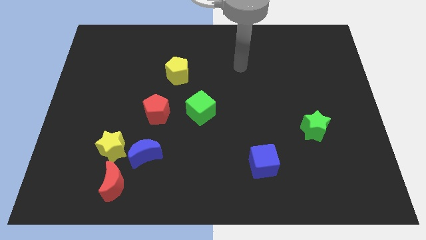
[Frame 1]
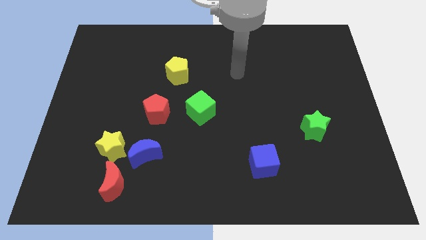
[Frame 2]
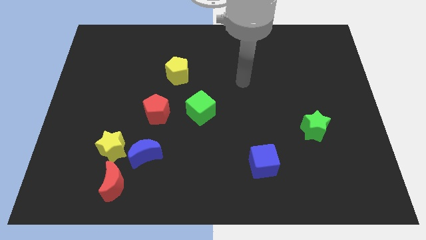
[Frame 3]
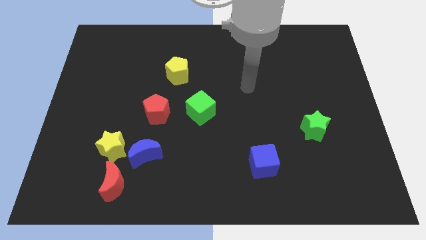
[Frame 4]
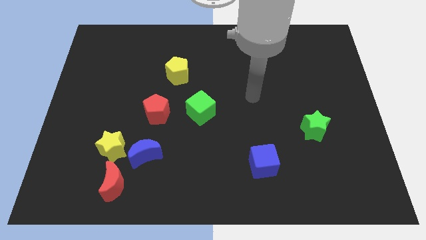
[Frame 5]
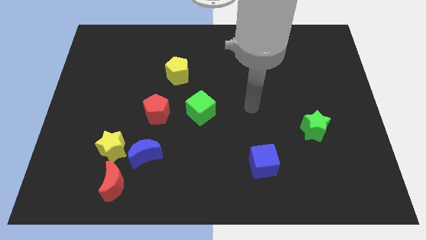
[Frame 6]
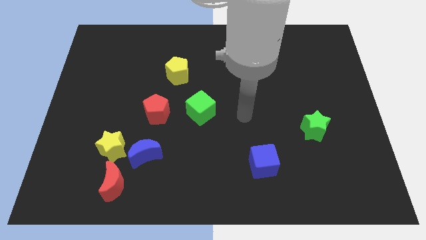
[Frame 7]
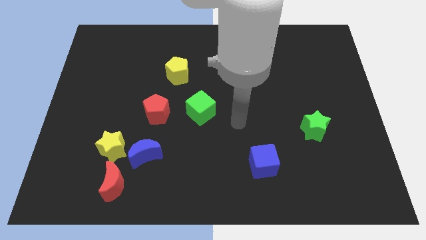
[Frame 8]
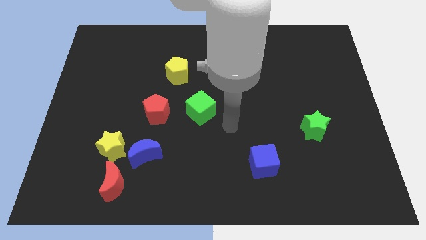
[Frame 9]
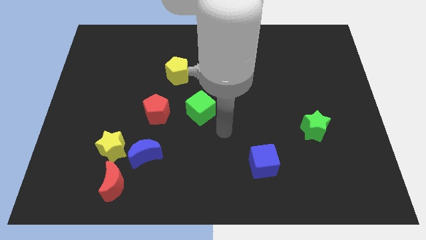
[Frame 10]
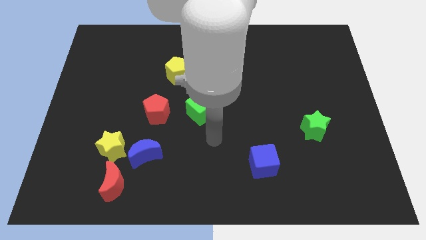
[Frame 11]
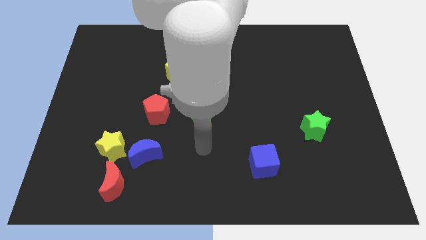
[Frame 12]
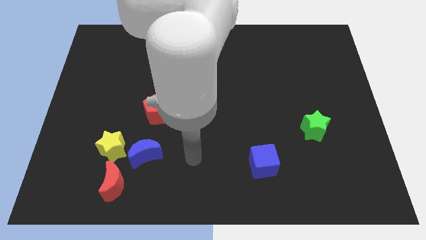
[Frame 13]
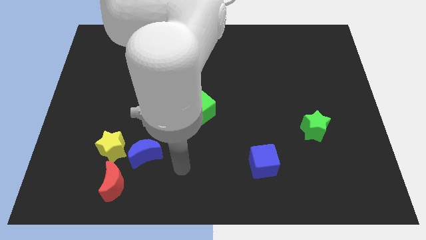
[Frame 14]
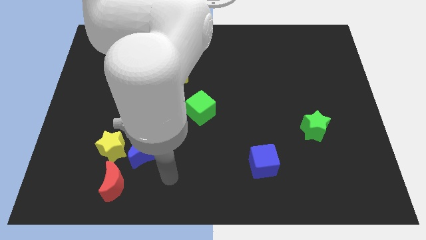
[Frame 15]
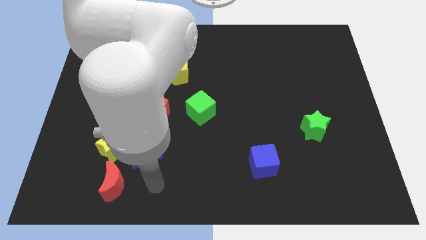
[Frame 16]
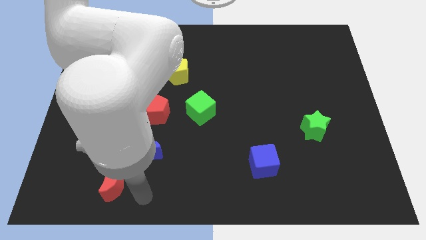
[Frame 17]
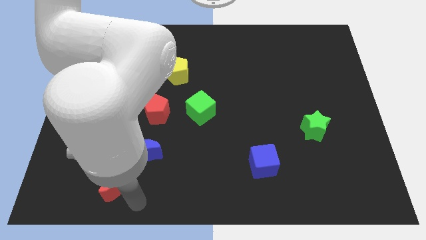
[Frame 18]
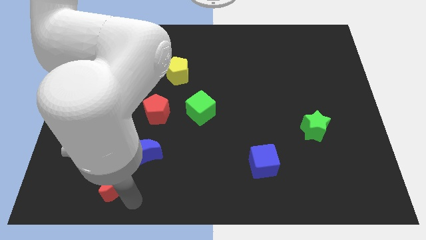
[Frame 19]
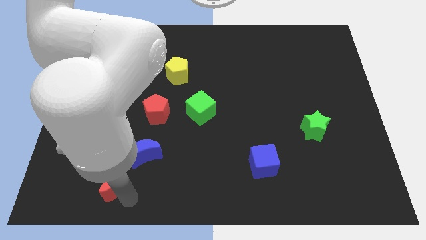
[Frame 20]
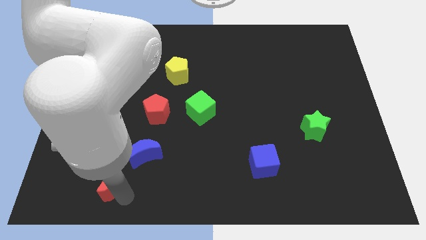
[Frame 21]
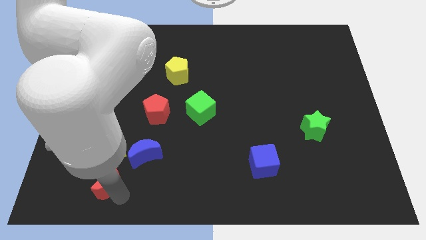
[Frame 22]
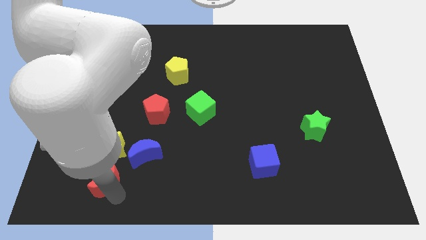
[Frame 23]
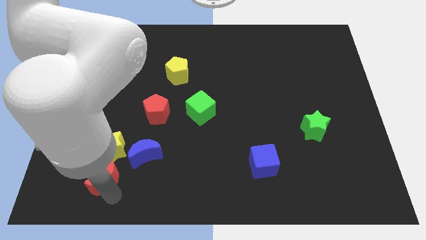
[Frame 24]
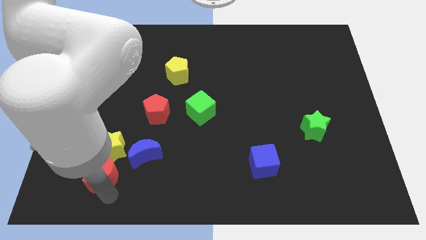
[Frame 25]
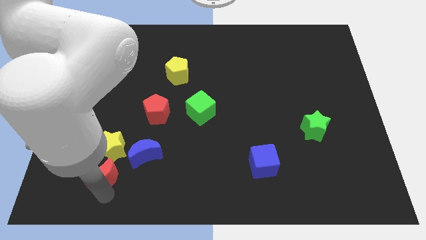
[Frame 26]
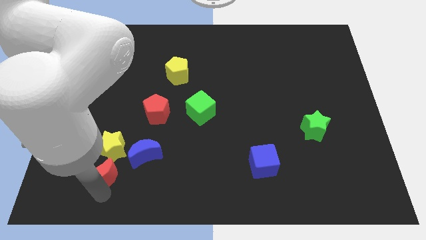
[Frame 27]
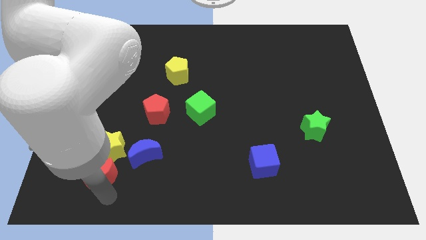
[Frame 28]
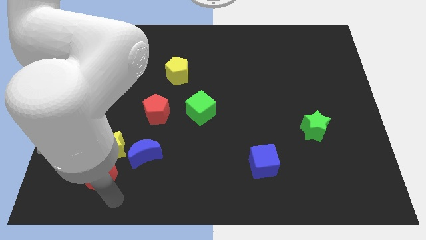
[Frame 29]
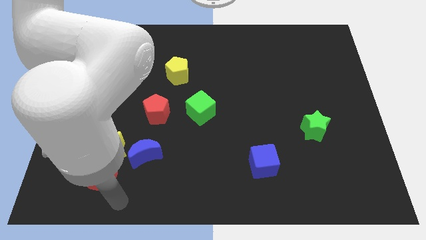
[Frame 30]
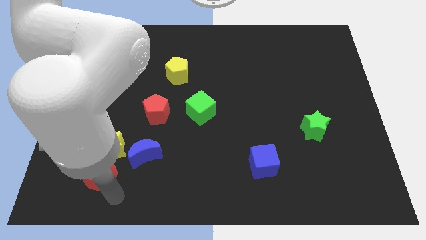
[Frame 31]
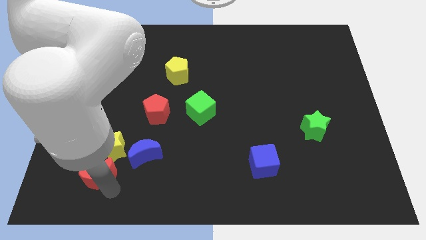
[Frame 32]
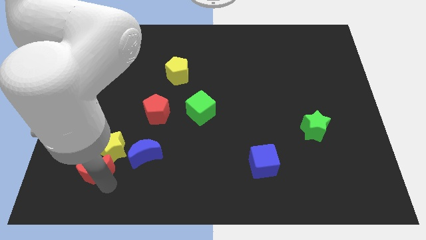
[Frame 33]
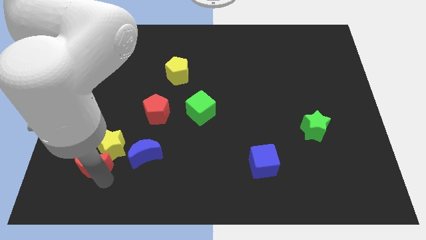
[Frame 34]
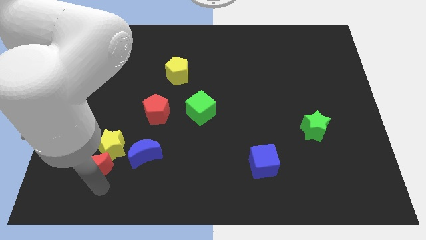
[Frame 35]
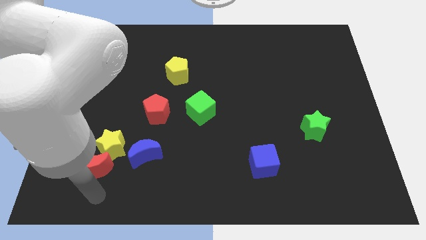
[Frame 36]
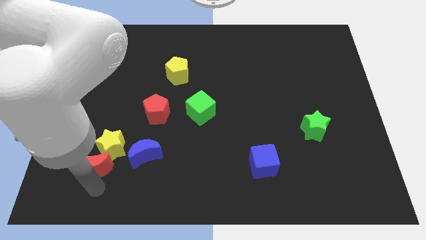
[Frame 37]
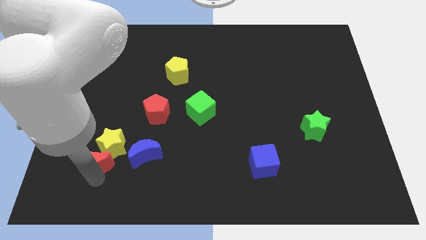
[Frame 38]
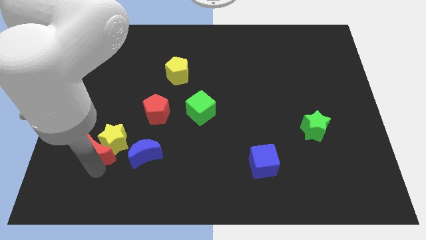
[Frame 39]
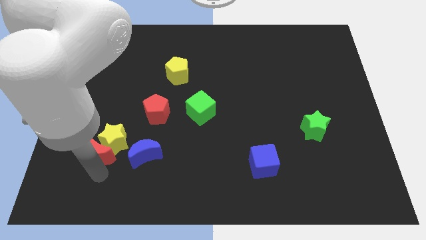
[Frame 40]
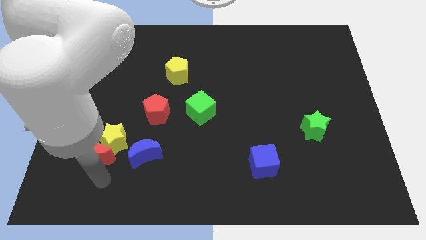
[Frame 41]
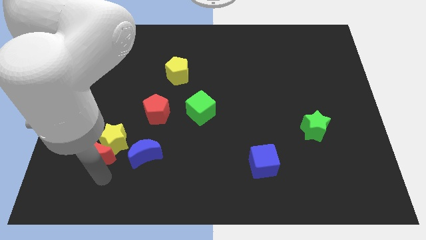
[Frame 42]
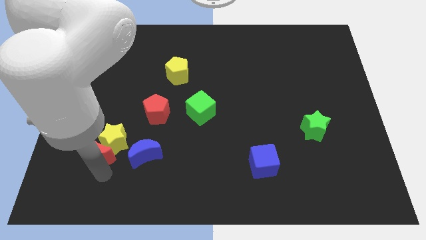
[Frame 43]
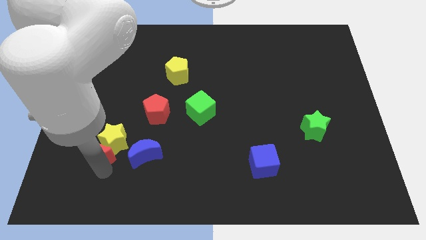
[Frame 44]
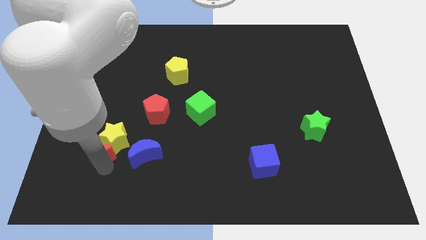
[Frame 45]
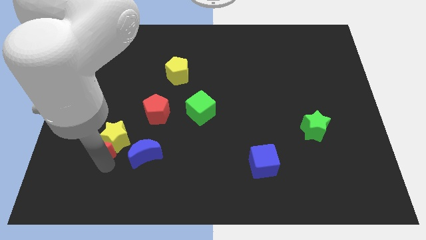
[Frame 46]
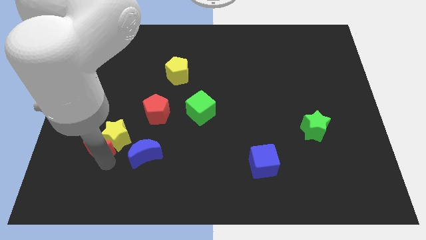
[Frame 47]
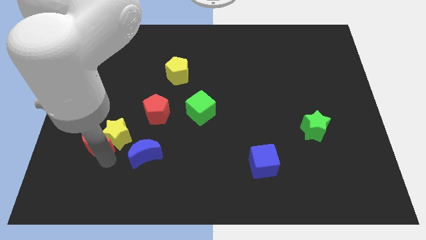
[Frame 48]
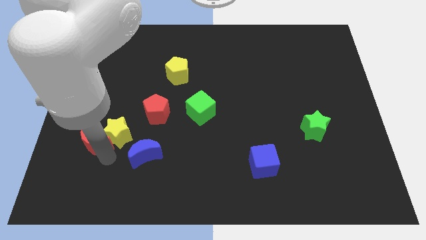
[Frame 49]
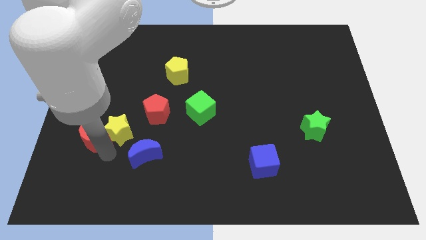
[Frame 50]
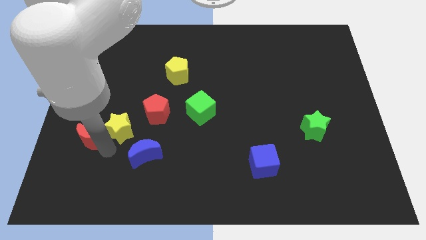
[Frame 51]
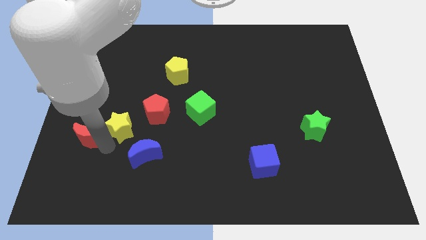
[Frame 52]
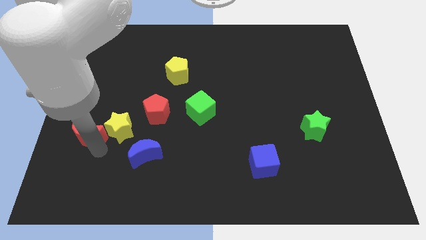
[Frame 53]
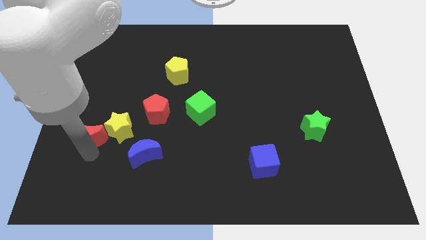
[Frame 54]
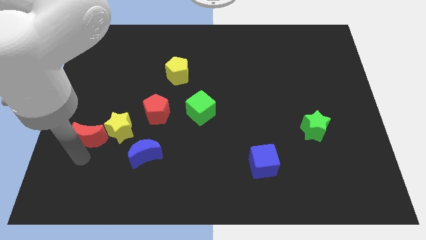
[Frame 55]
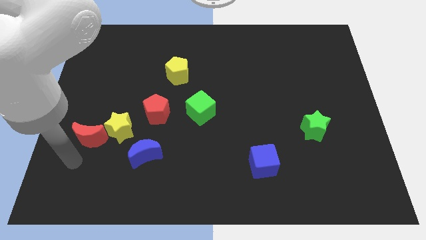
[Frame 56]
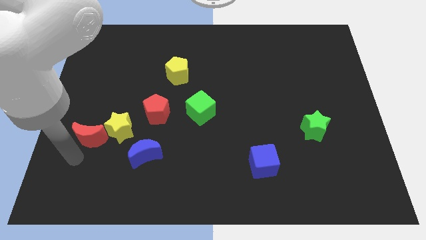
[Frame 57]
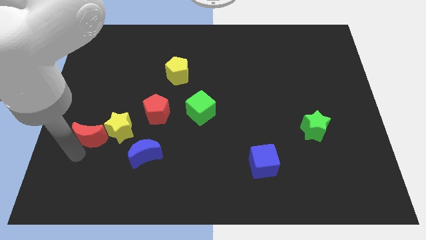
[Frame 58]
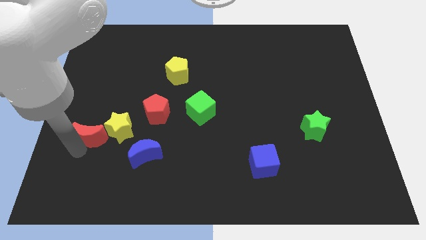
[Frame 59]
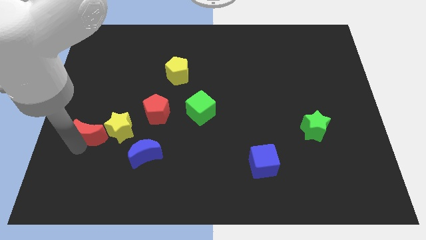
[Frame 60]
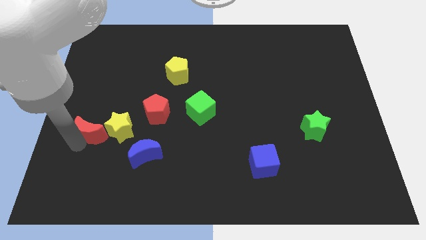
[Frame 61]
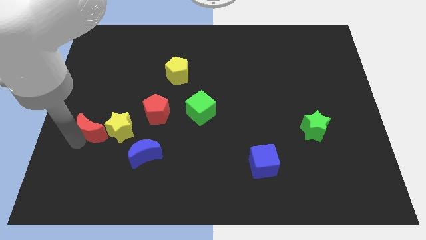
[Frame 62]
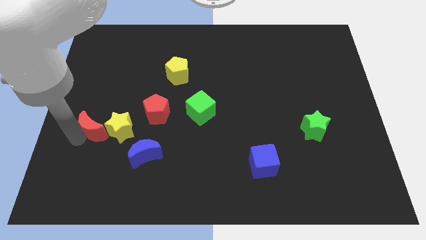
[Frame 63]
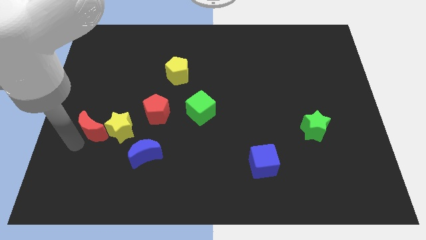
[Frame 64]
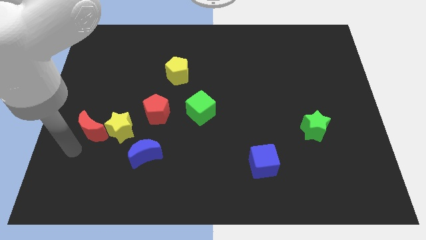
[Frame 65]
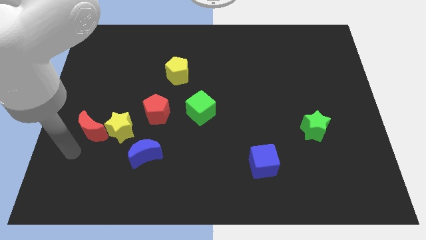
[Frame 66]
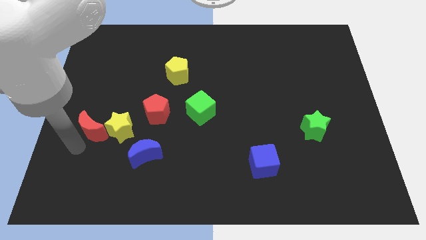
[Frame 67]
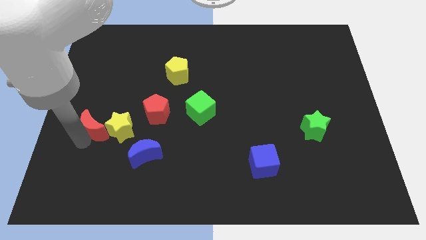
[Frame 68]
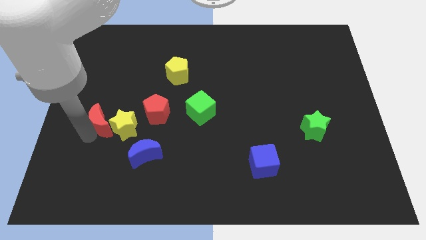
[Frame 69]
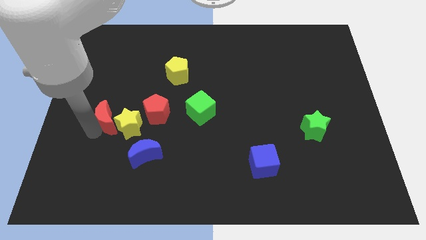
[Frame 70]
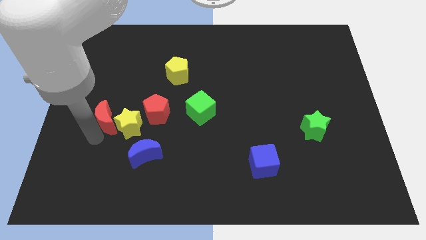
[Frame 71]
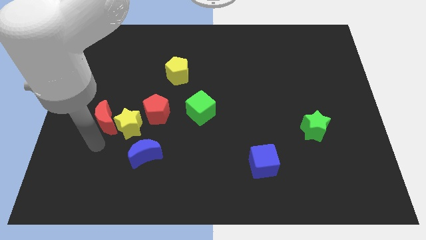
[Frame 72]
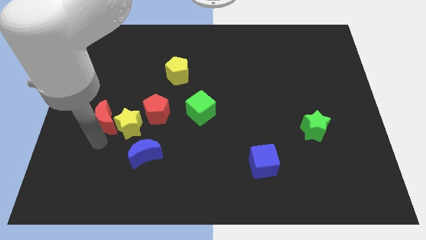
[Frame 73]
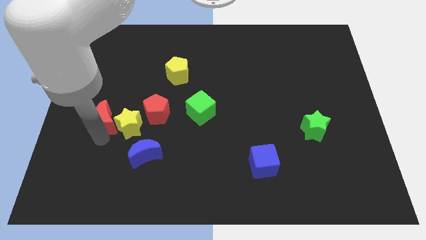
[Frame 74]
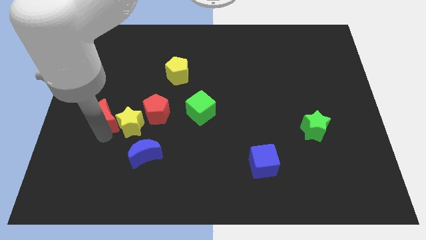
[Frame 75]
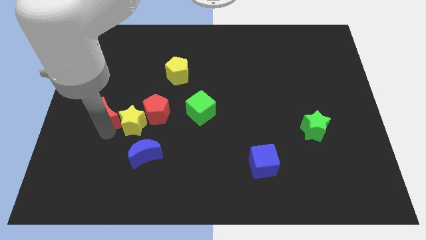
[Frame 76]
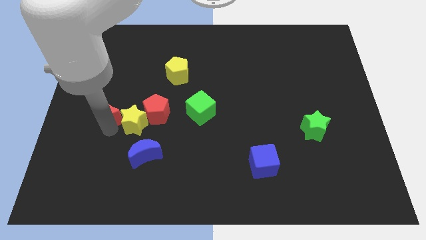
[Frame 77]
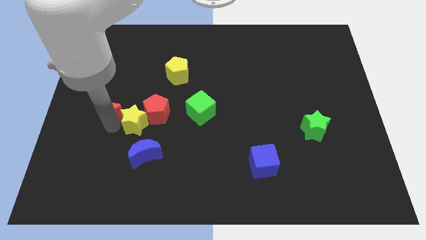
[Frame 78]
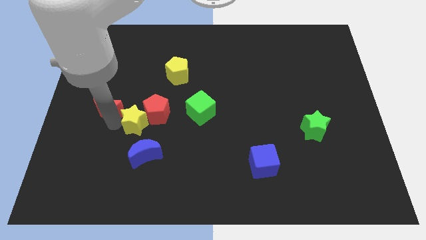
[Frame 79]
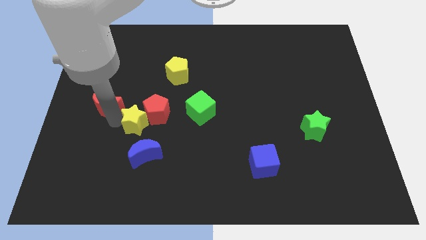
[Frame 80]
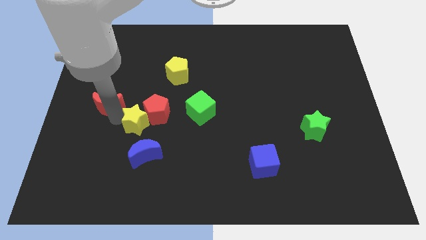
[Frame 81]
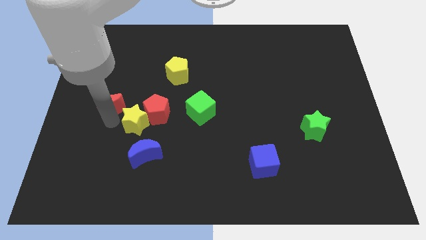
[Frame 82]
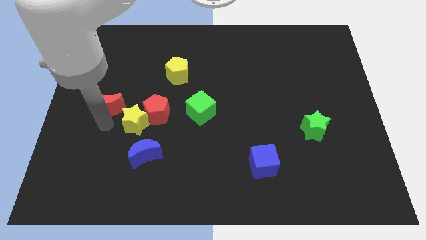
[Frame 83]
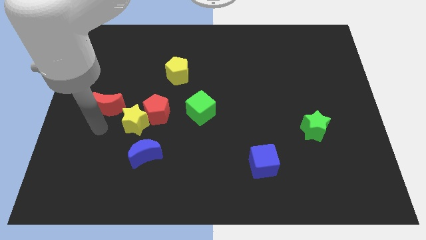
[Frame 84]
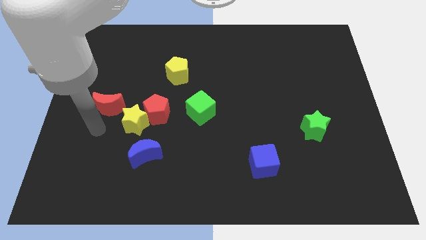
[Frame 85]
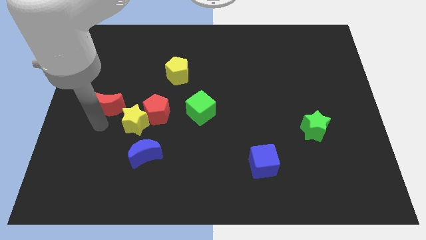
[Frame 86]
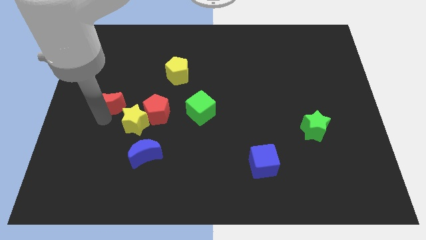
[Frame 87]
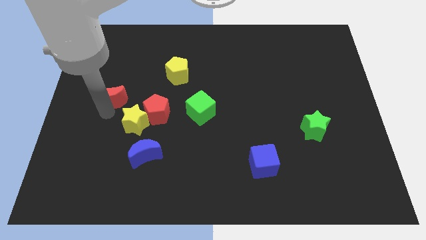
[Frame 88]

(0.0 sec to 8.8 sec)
move the red moon up
